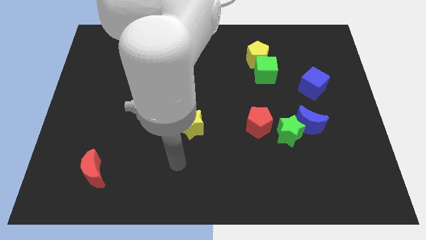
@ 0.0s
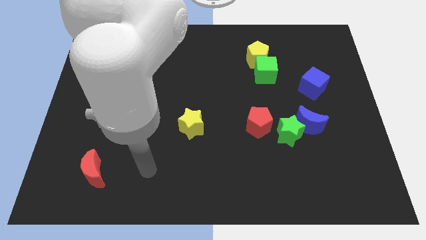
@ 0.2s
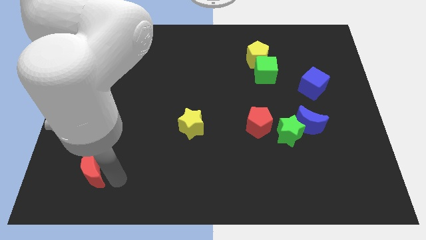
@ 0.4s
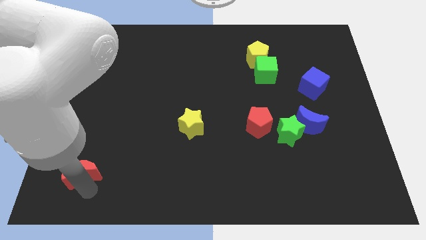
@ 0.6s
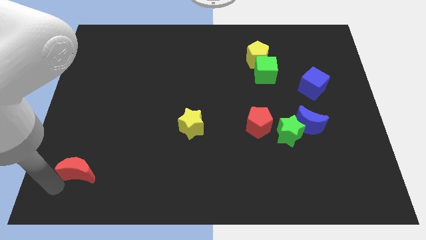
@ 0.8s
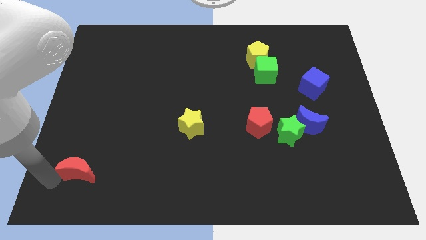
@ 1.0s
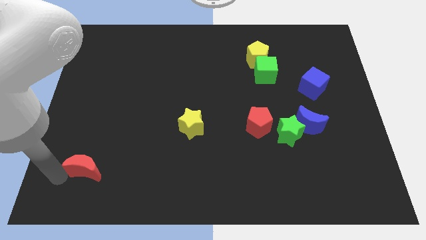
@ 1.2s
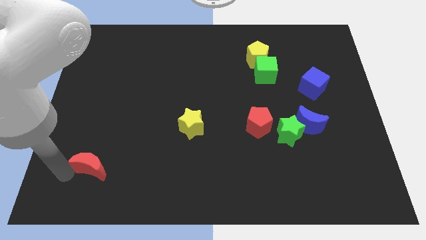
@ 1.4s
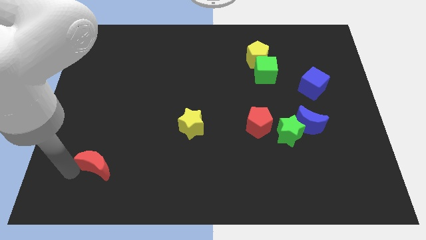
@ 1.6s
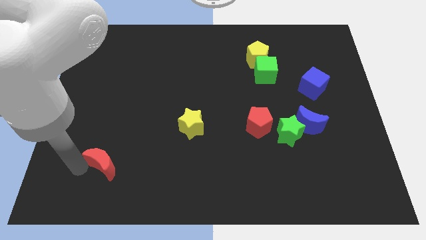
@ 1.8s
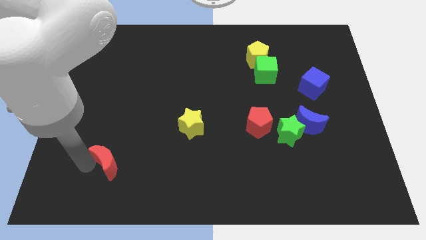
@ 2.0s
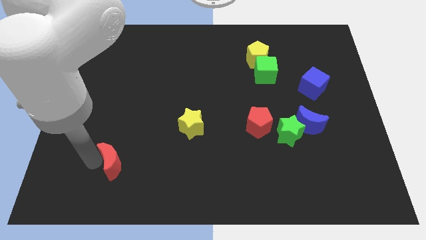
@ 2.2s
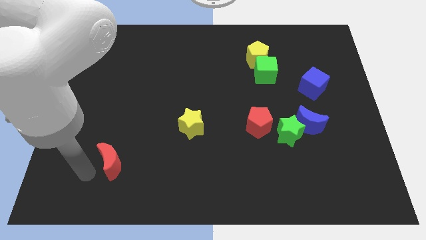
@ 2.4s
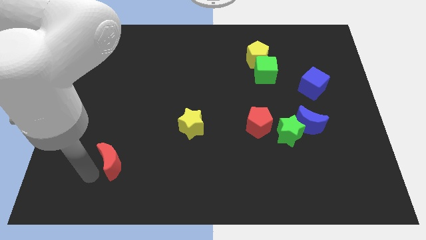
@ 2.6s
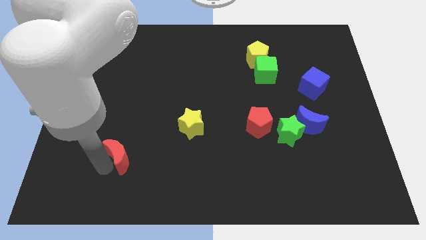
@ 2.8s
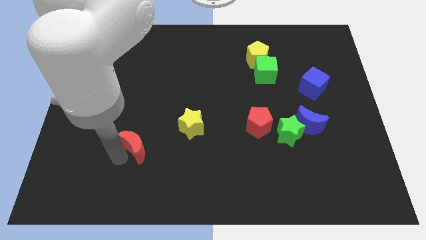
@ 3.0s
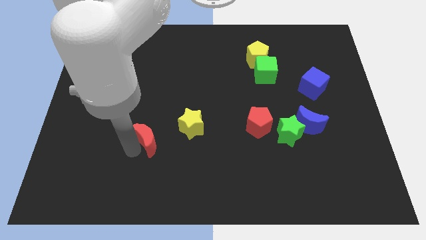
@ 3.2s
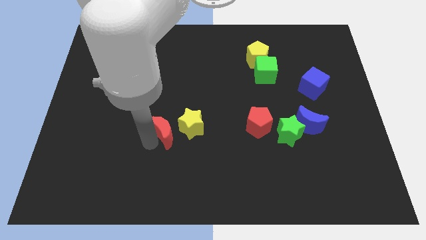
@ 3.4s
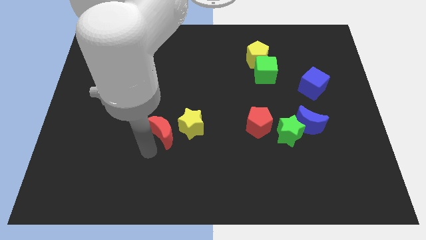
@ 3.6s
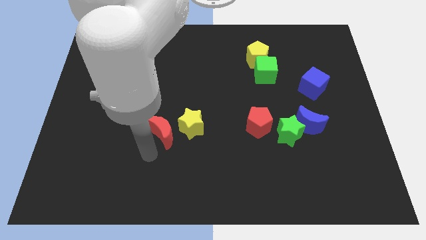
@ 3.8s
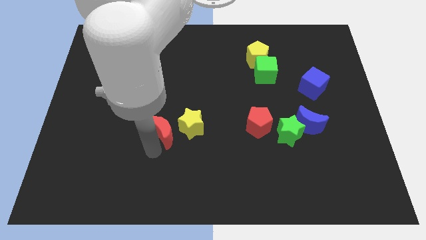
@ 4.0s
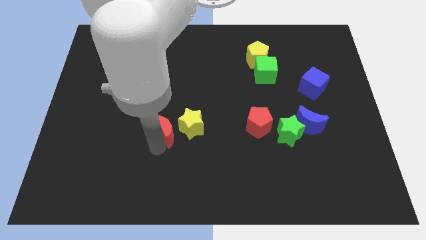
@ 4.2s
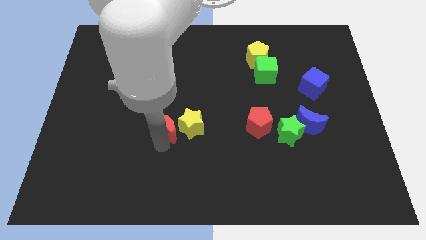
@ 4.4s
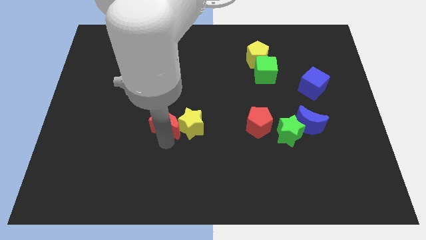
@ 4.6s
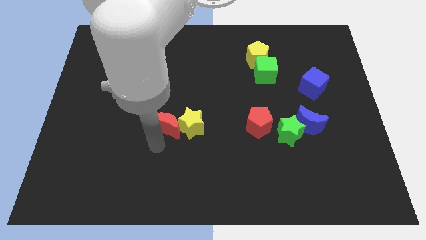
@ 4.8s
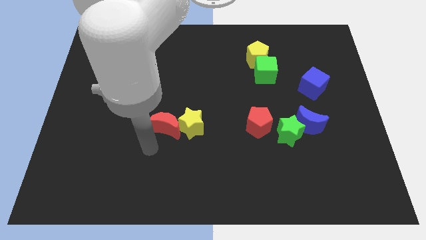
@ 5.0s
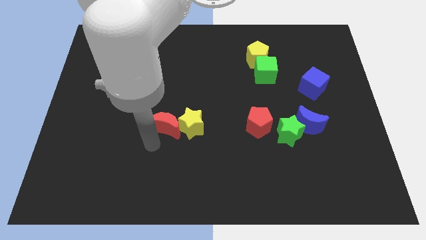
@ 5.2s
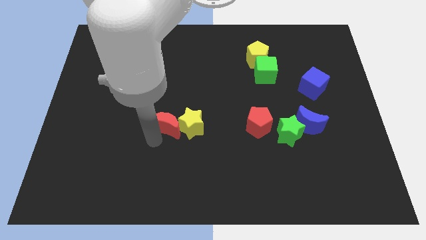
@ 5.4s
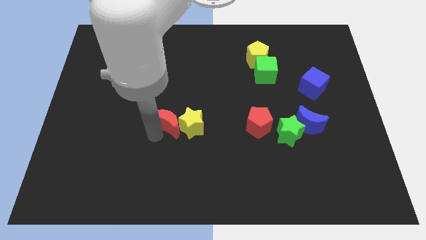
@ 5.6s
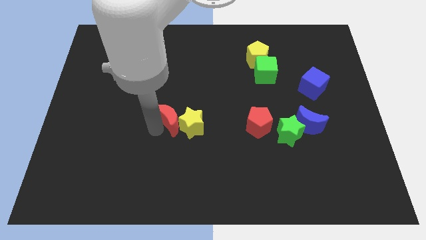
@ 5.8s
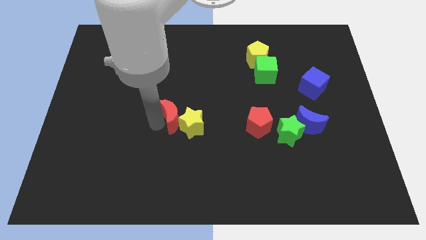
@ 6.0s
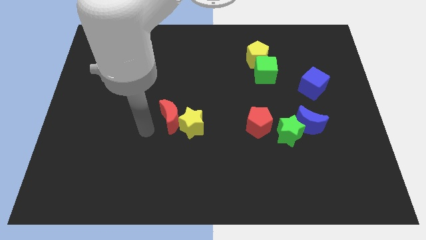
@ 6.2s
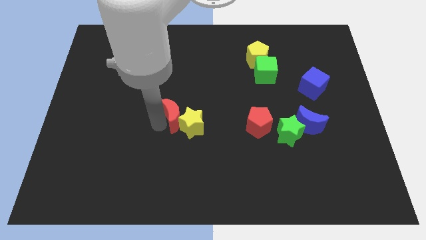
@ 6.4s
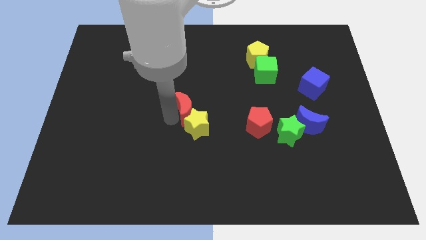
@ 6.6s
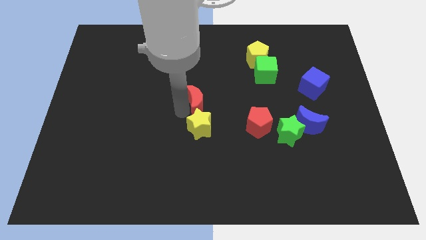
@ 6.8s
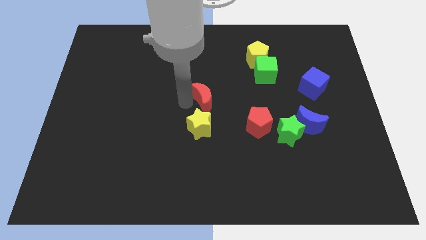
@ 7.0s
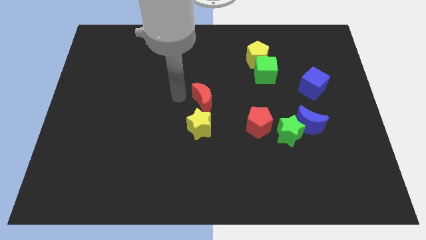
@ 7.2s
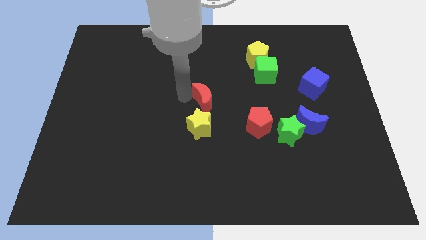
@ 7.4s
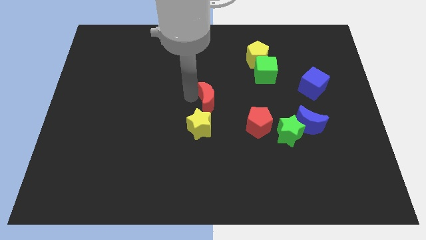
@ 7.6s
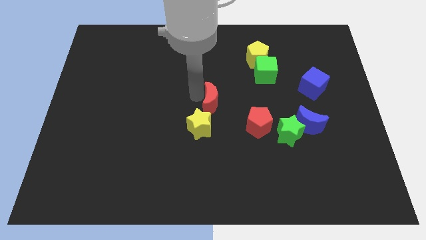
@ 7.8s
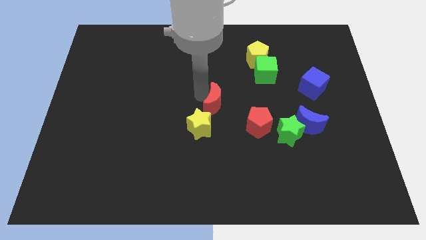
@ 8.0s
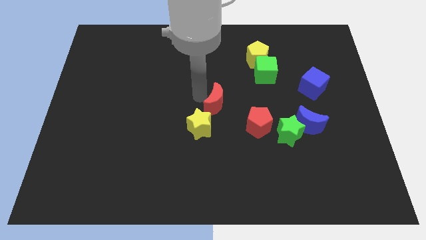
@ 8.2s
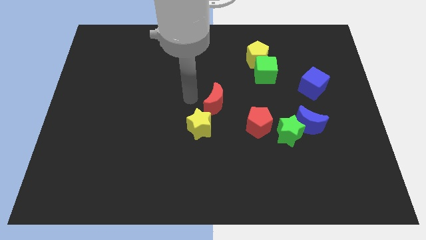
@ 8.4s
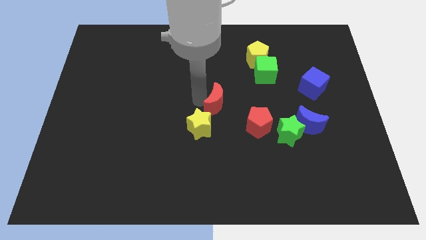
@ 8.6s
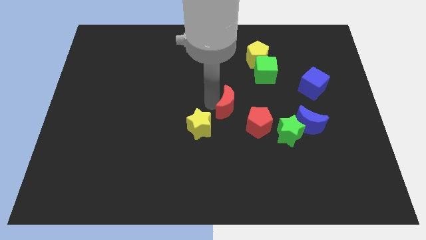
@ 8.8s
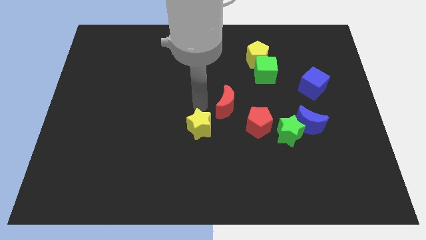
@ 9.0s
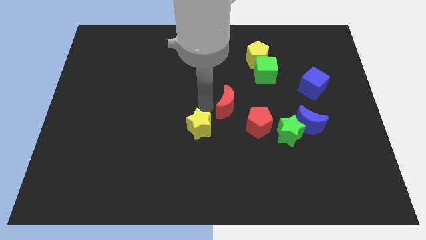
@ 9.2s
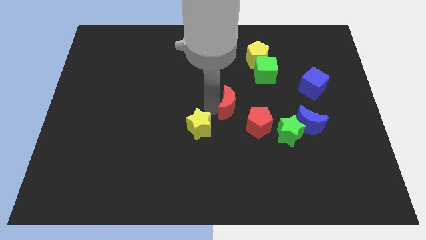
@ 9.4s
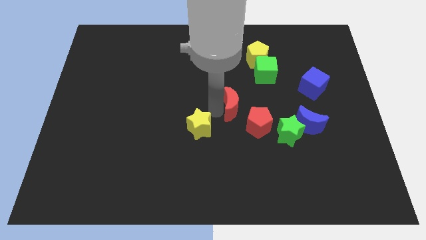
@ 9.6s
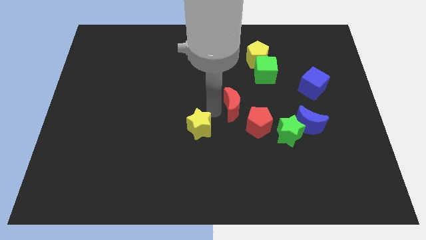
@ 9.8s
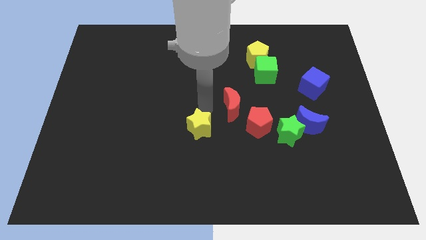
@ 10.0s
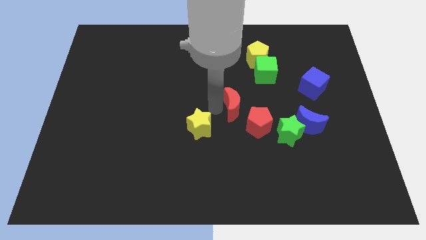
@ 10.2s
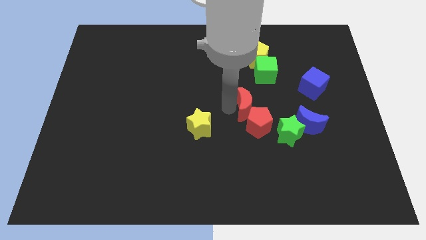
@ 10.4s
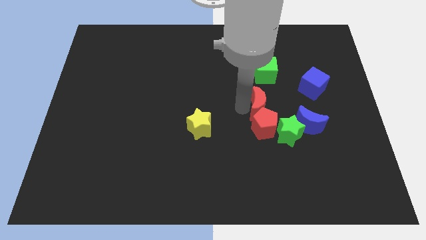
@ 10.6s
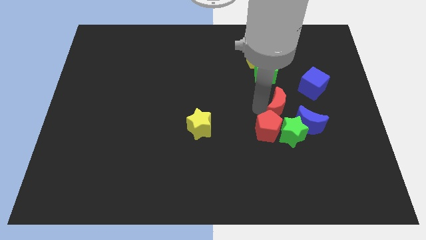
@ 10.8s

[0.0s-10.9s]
push the red moon diagonally down and to the left of the blue cube

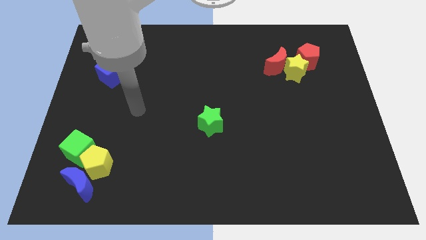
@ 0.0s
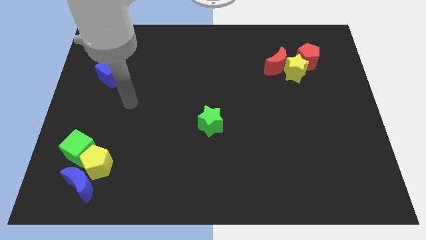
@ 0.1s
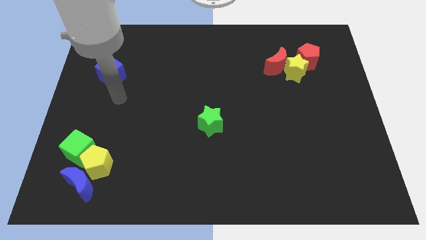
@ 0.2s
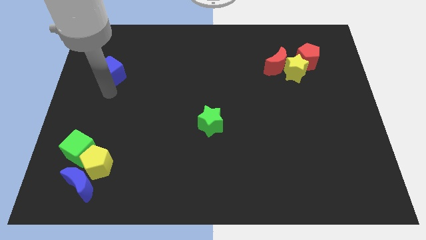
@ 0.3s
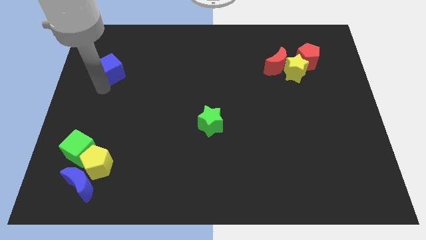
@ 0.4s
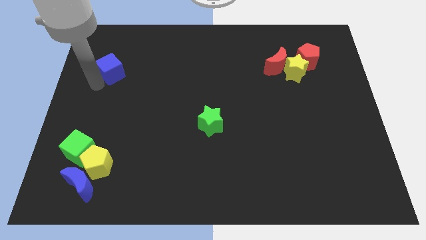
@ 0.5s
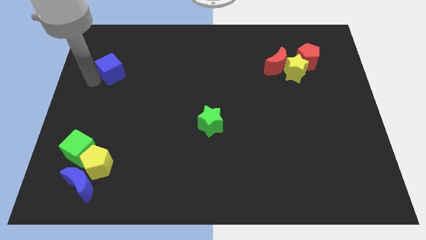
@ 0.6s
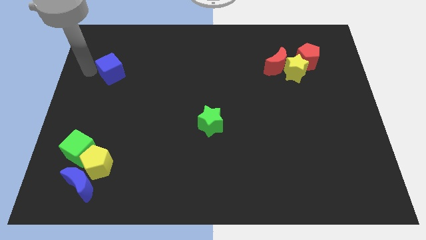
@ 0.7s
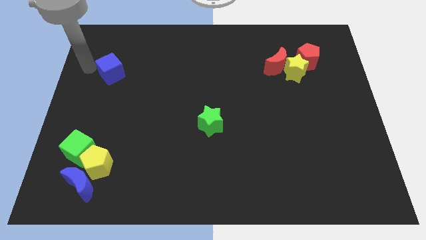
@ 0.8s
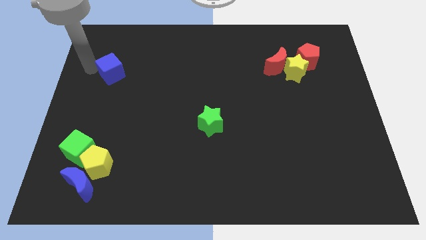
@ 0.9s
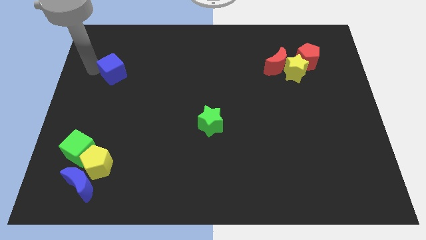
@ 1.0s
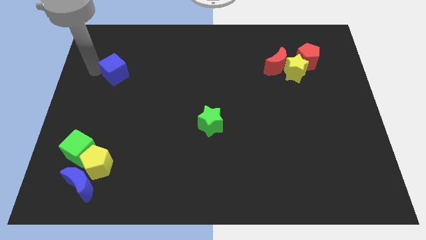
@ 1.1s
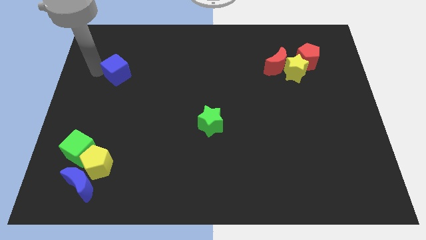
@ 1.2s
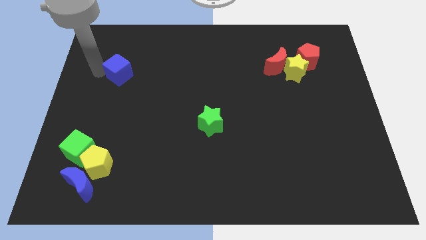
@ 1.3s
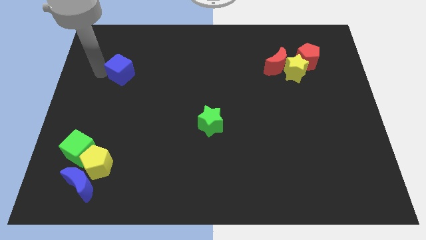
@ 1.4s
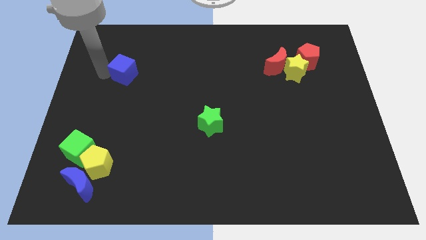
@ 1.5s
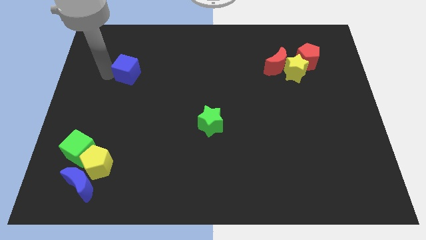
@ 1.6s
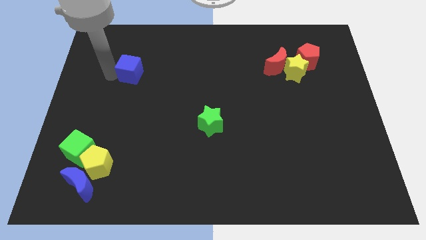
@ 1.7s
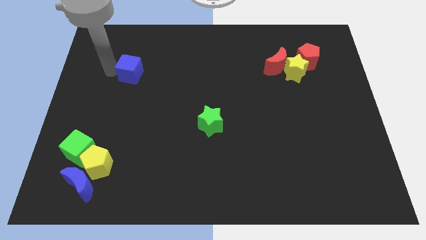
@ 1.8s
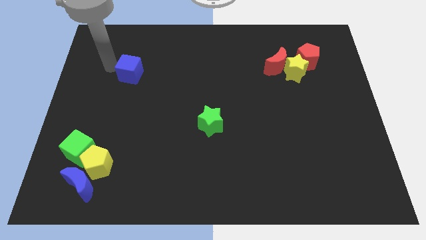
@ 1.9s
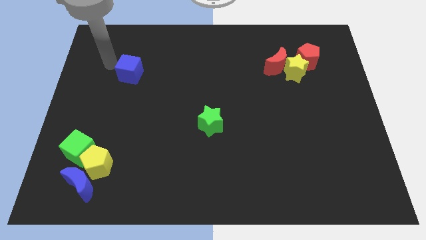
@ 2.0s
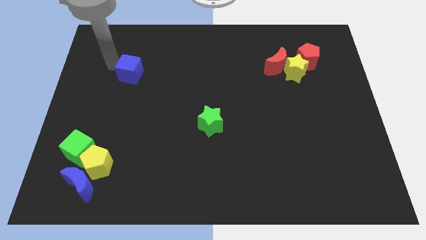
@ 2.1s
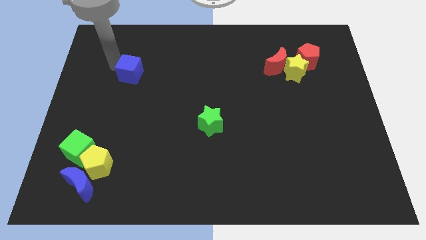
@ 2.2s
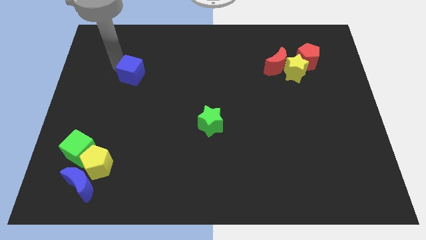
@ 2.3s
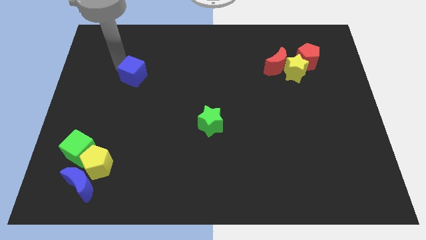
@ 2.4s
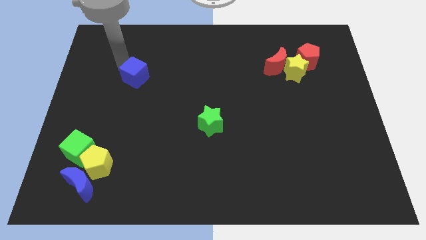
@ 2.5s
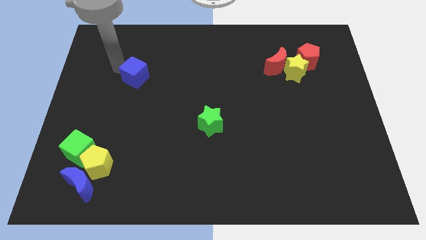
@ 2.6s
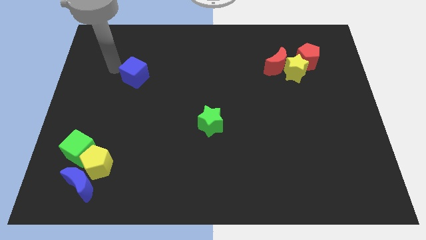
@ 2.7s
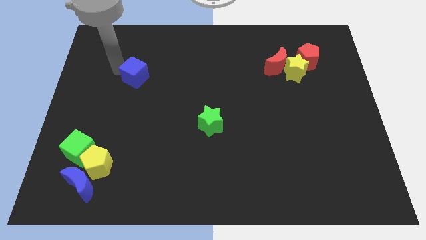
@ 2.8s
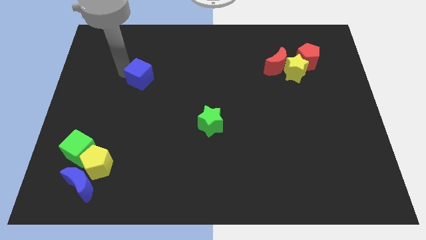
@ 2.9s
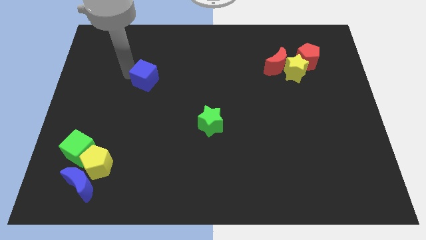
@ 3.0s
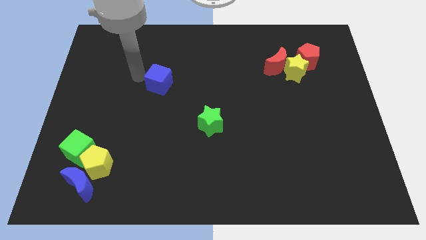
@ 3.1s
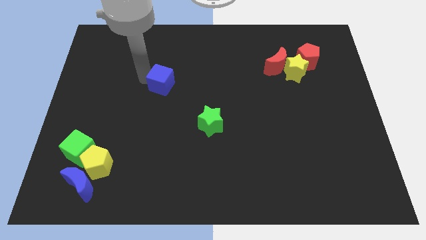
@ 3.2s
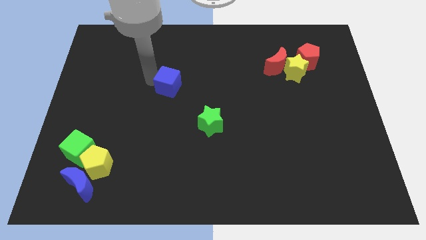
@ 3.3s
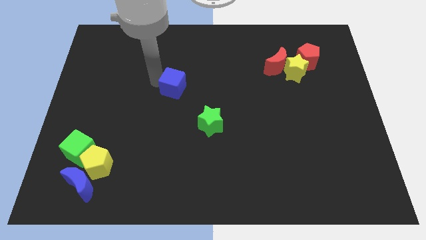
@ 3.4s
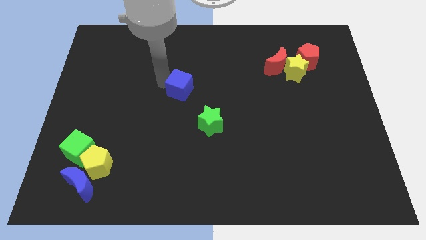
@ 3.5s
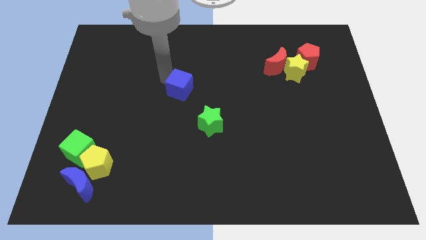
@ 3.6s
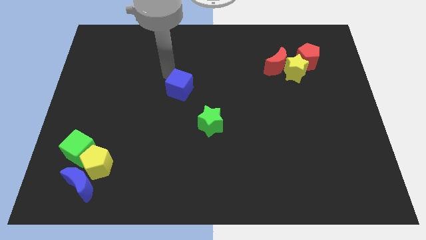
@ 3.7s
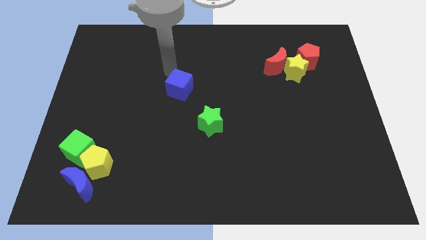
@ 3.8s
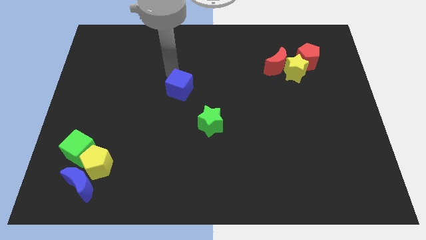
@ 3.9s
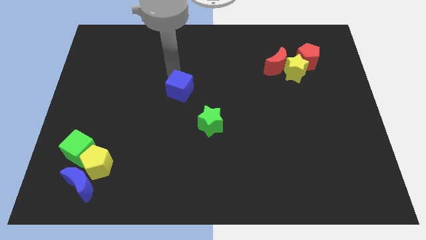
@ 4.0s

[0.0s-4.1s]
put the blue cube to the top left side of the green star
